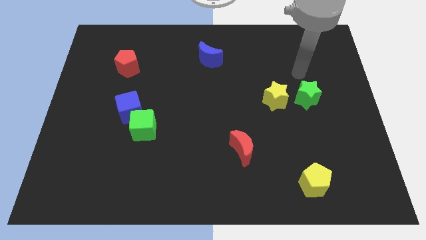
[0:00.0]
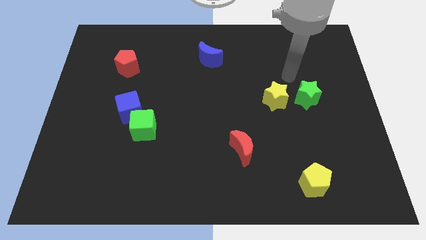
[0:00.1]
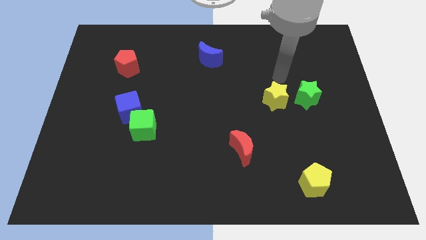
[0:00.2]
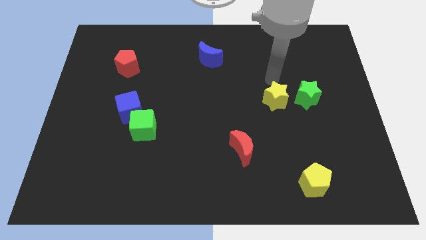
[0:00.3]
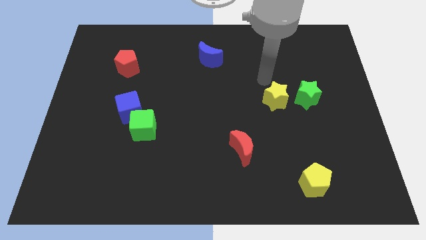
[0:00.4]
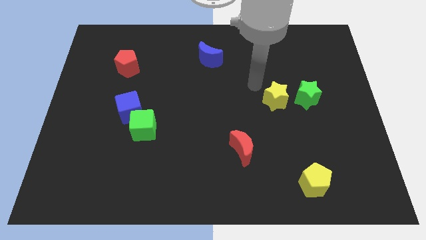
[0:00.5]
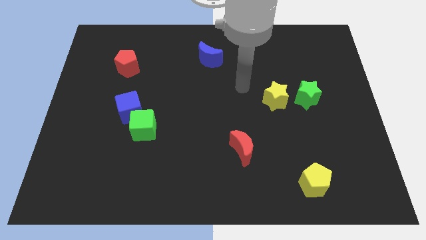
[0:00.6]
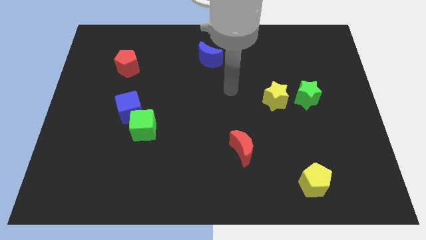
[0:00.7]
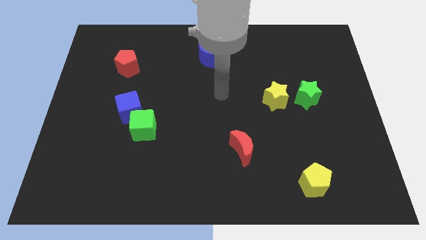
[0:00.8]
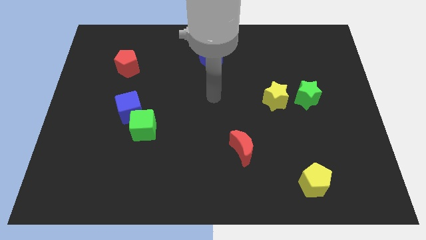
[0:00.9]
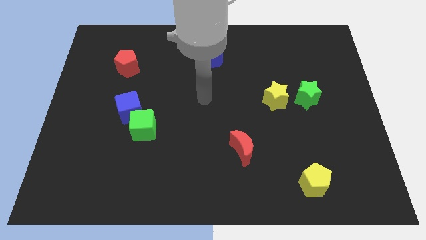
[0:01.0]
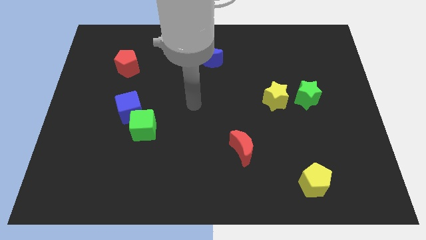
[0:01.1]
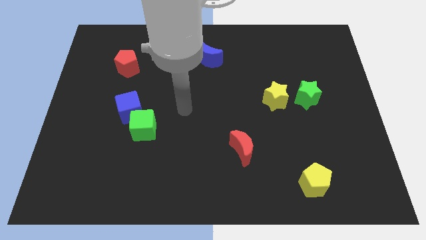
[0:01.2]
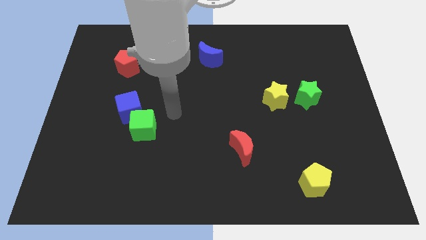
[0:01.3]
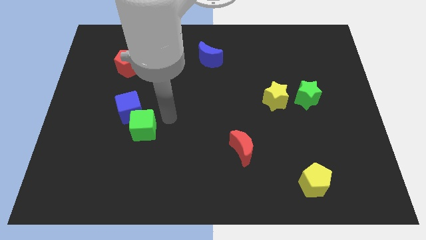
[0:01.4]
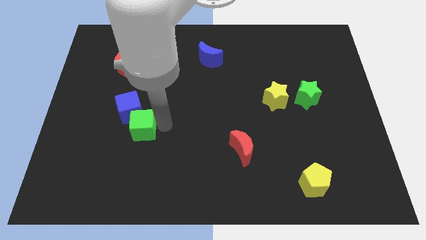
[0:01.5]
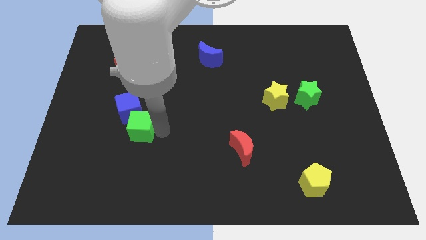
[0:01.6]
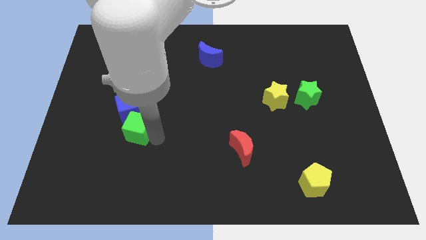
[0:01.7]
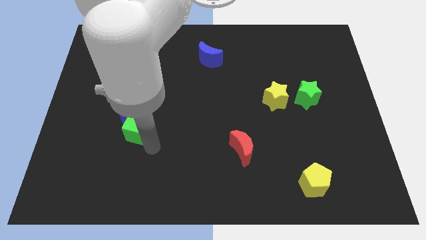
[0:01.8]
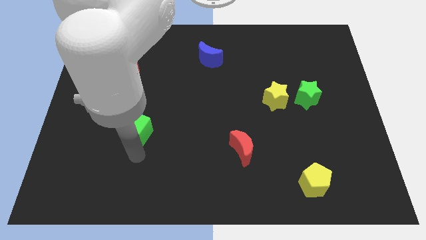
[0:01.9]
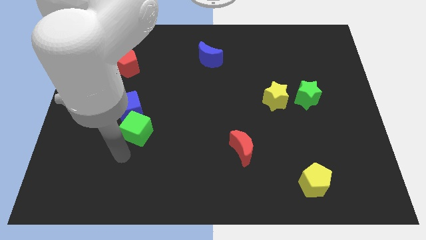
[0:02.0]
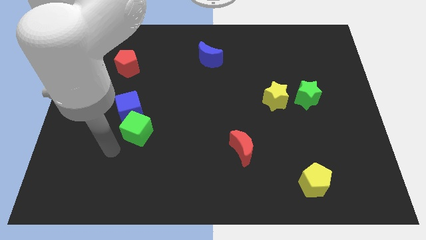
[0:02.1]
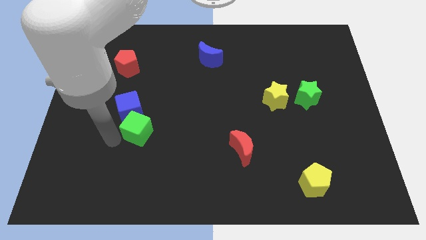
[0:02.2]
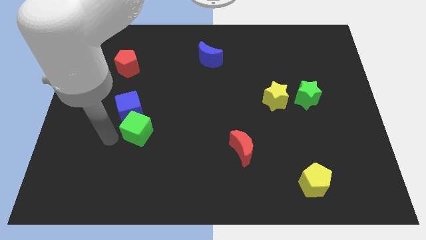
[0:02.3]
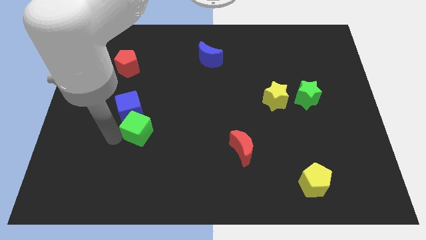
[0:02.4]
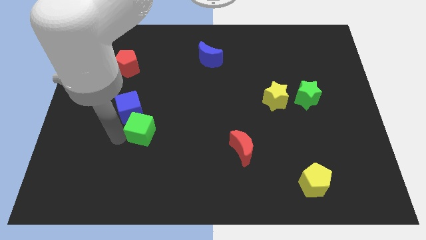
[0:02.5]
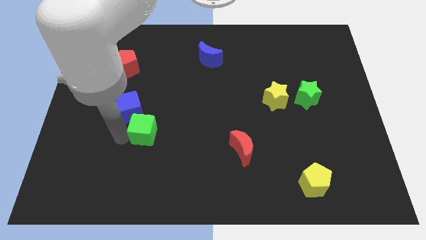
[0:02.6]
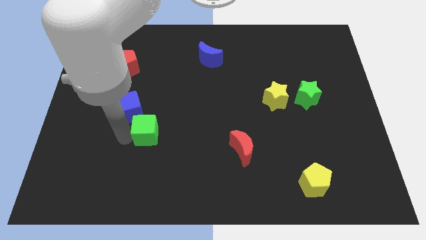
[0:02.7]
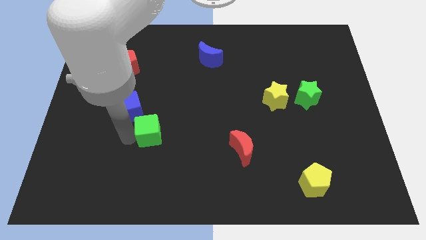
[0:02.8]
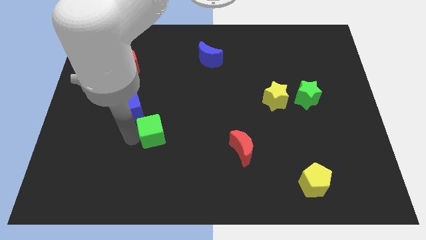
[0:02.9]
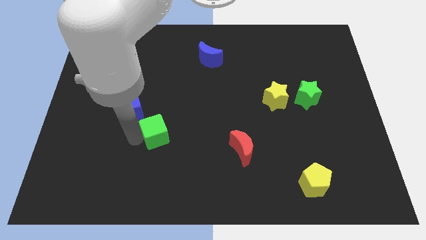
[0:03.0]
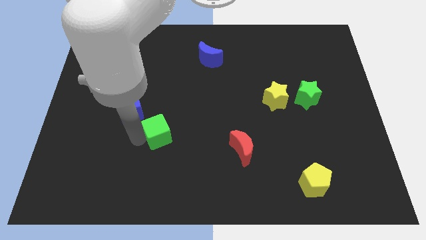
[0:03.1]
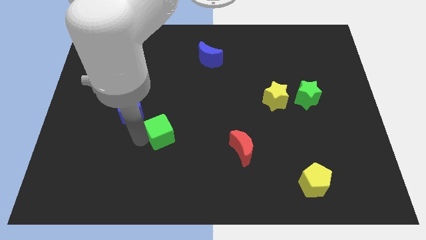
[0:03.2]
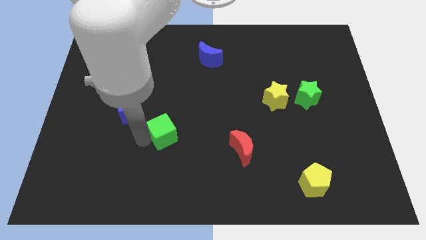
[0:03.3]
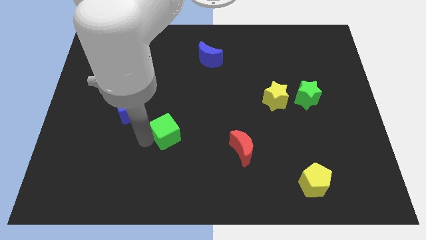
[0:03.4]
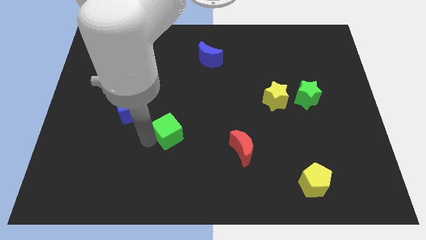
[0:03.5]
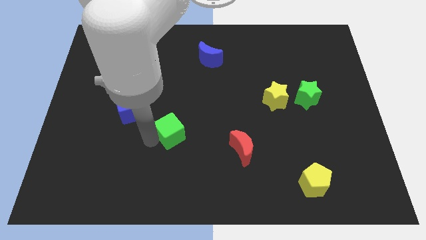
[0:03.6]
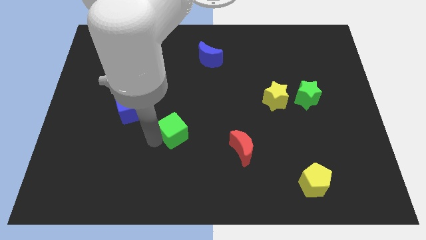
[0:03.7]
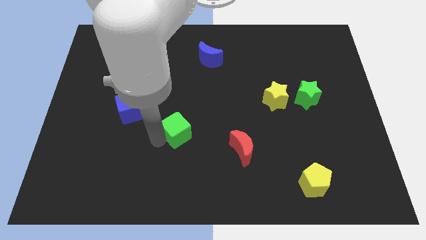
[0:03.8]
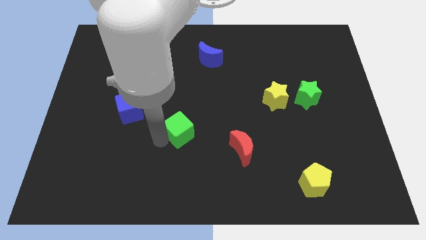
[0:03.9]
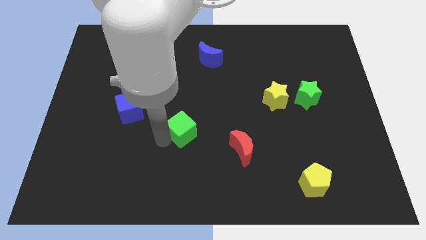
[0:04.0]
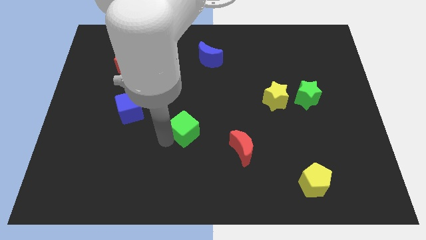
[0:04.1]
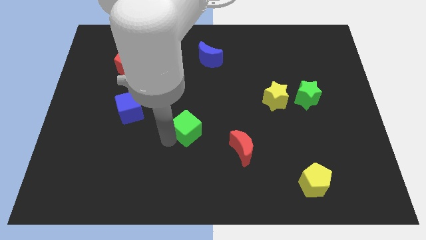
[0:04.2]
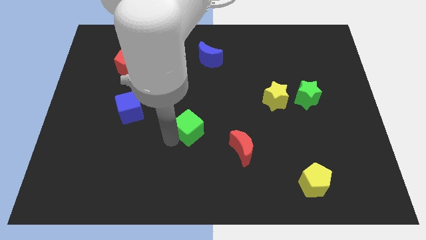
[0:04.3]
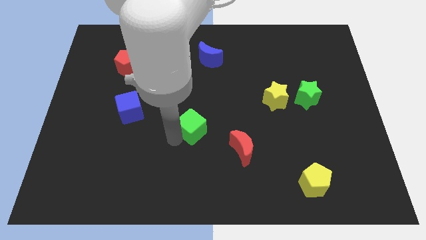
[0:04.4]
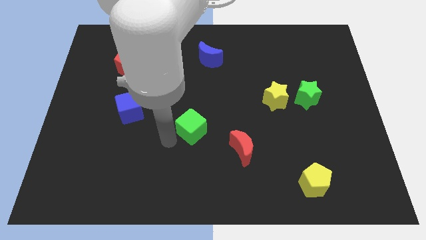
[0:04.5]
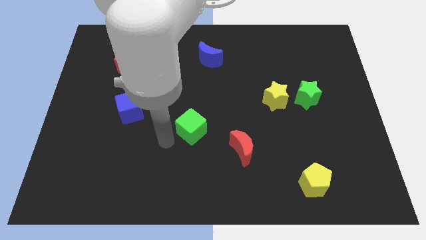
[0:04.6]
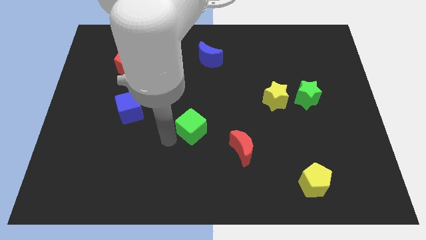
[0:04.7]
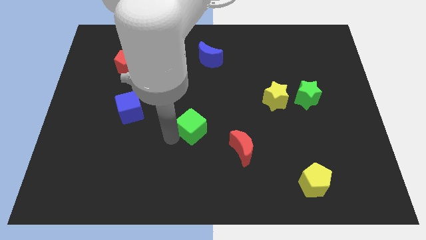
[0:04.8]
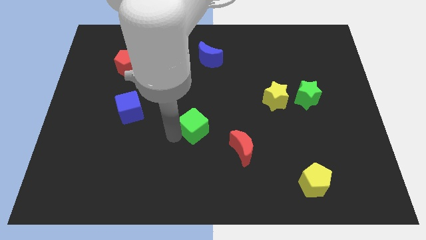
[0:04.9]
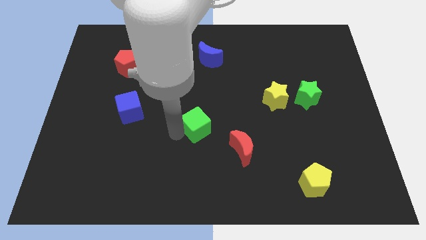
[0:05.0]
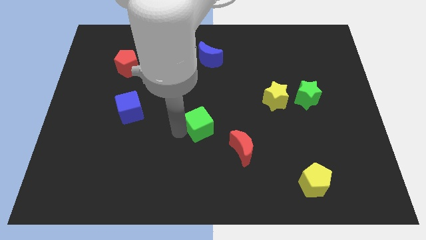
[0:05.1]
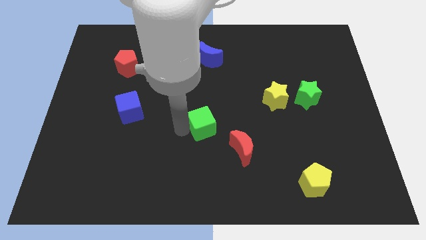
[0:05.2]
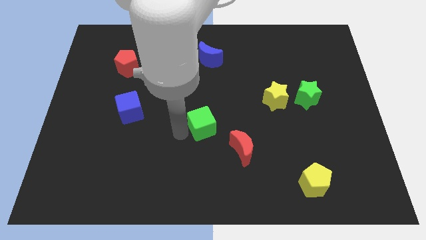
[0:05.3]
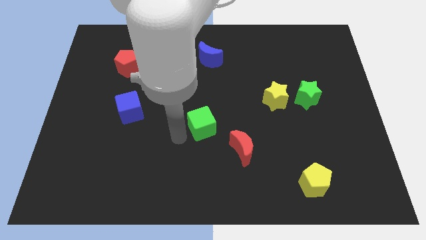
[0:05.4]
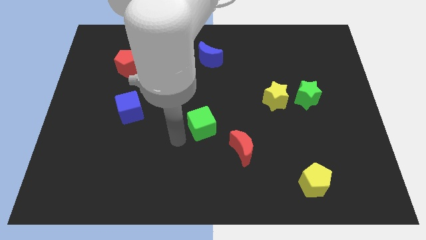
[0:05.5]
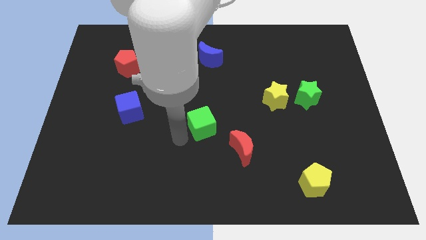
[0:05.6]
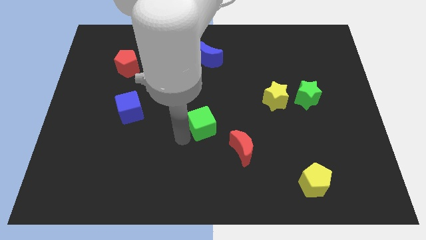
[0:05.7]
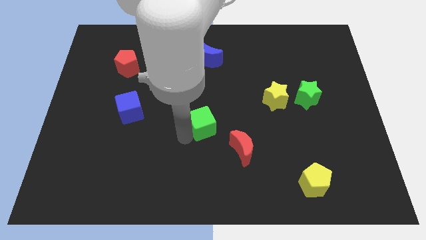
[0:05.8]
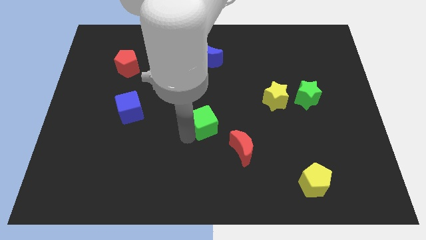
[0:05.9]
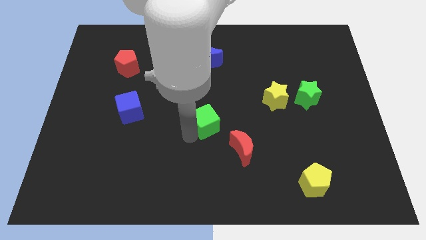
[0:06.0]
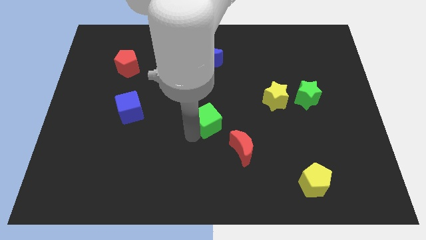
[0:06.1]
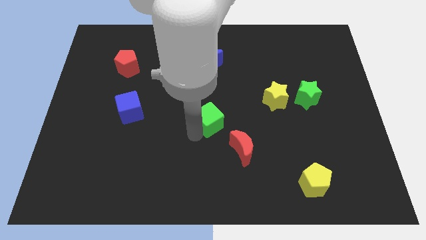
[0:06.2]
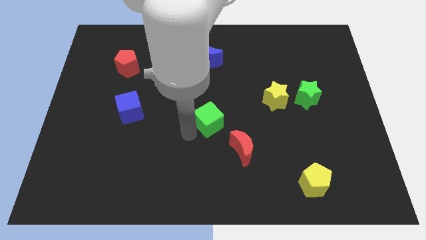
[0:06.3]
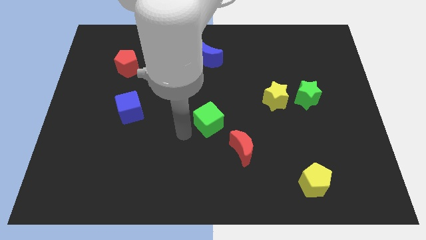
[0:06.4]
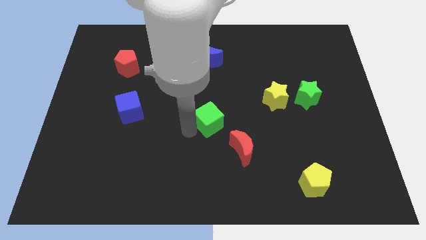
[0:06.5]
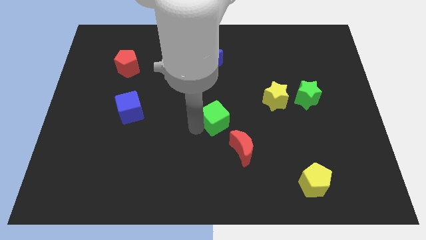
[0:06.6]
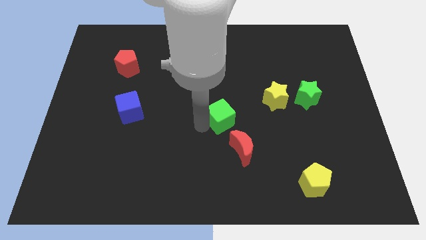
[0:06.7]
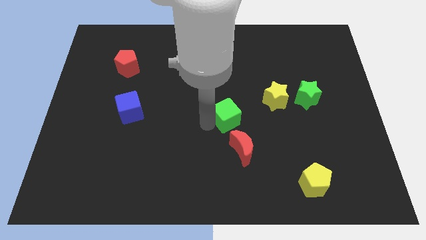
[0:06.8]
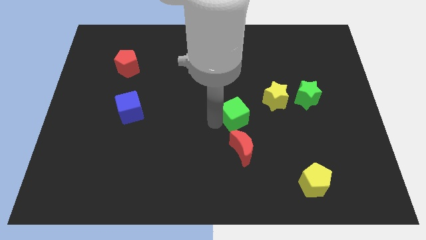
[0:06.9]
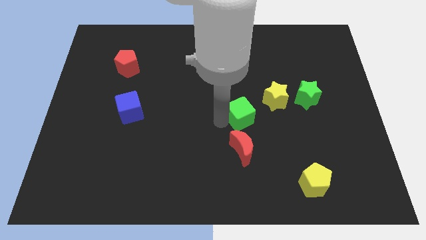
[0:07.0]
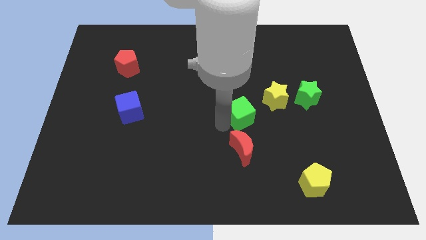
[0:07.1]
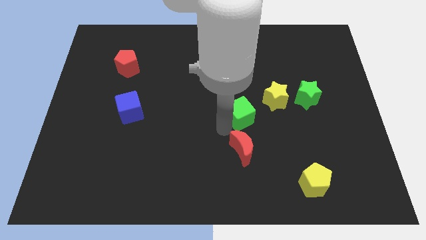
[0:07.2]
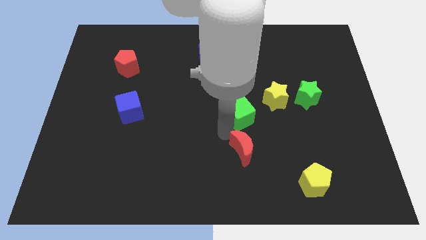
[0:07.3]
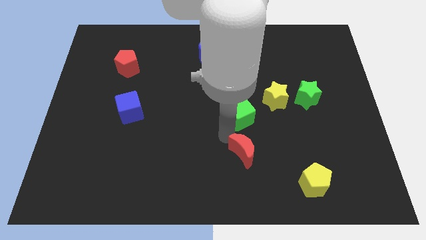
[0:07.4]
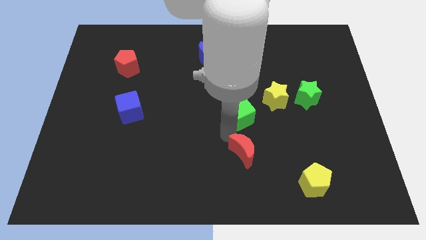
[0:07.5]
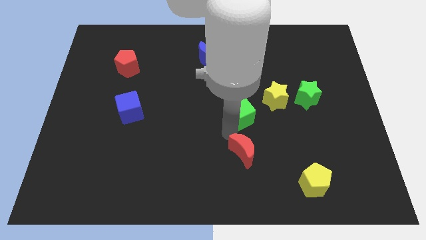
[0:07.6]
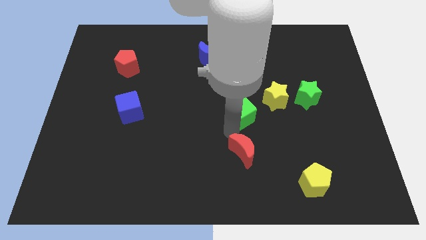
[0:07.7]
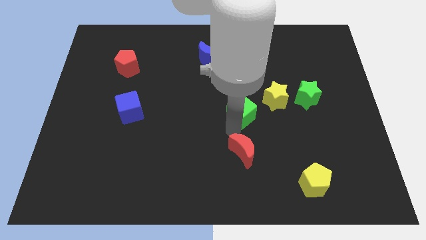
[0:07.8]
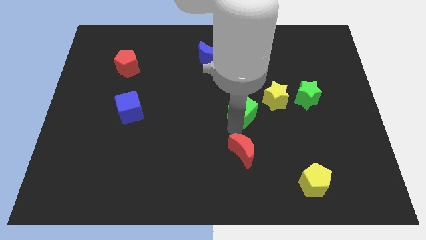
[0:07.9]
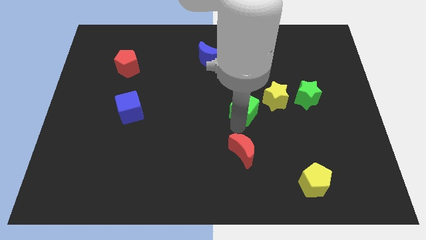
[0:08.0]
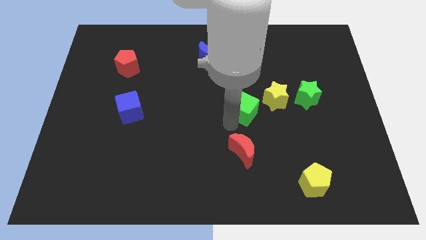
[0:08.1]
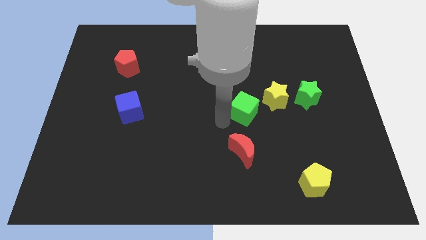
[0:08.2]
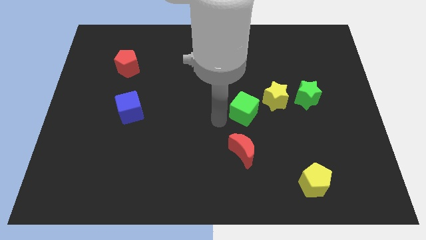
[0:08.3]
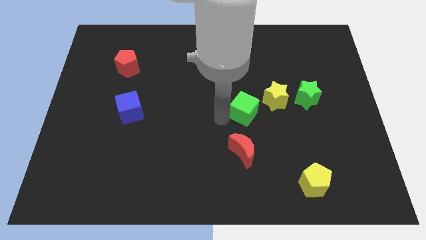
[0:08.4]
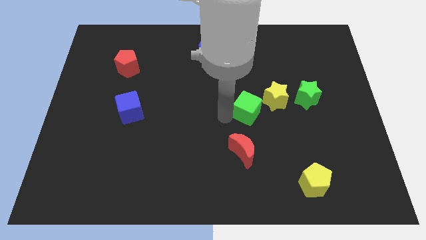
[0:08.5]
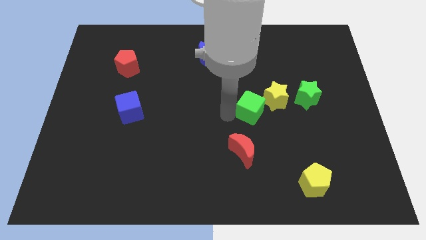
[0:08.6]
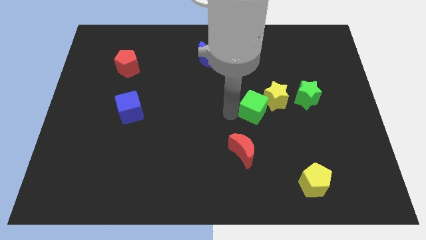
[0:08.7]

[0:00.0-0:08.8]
move the green cube next to the yellow star
